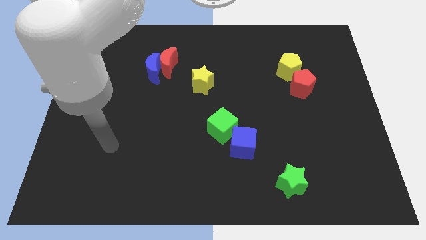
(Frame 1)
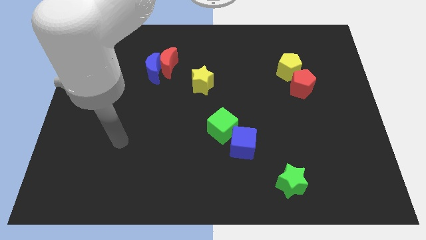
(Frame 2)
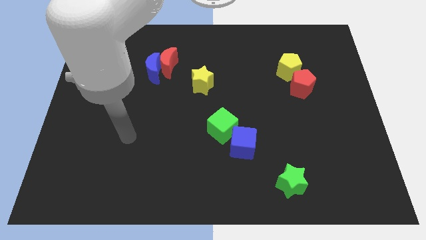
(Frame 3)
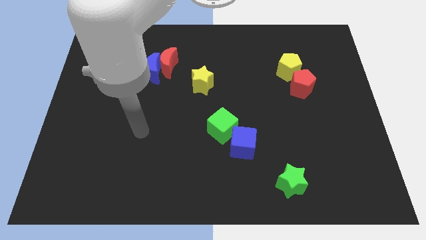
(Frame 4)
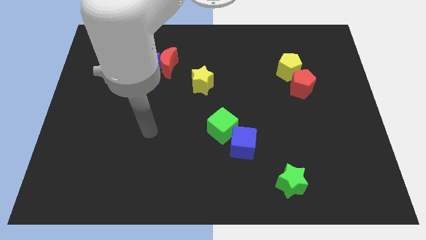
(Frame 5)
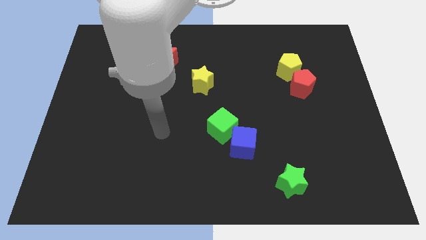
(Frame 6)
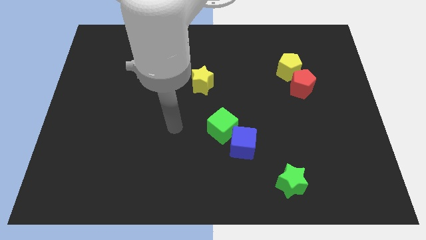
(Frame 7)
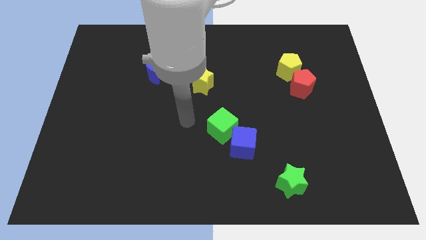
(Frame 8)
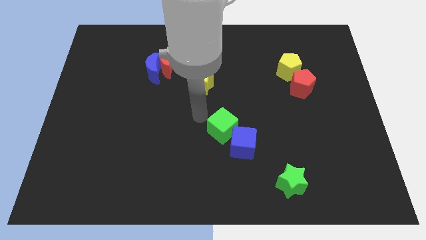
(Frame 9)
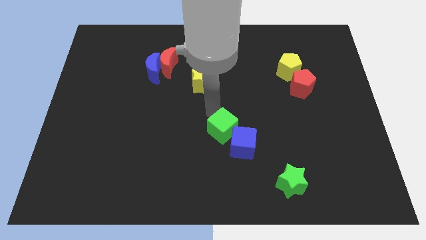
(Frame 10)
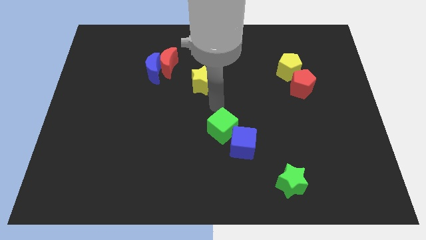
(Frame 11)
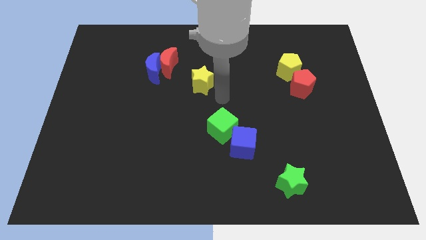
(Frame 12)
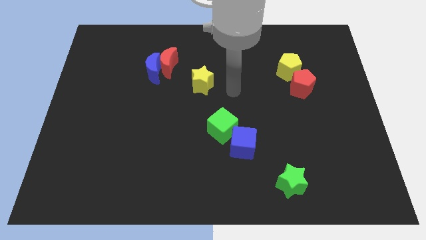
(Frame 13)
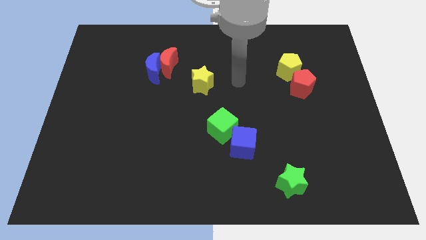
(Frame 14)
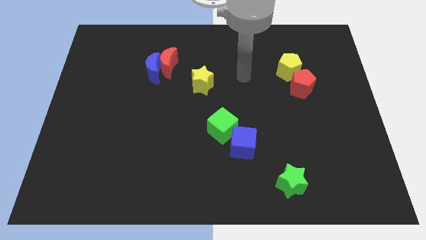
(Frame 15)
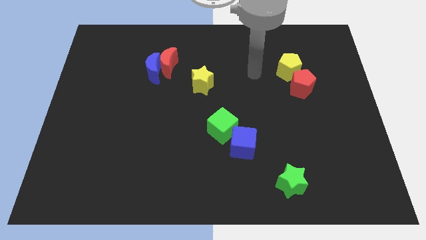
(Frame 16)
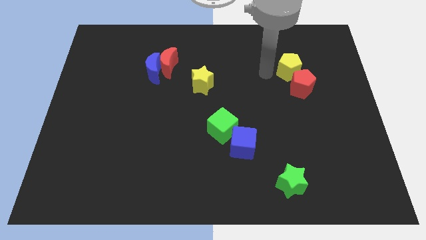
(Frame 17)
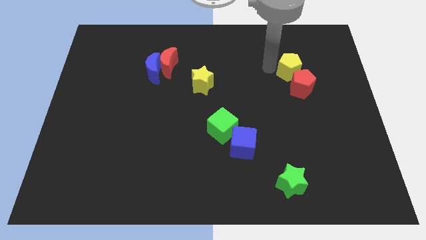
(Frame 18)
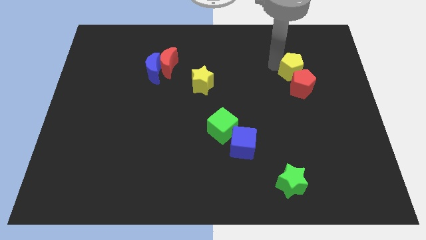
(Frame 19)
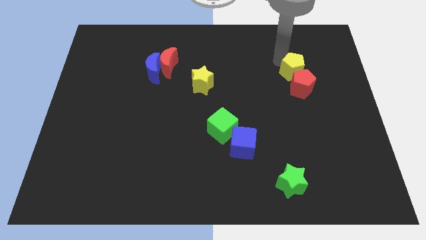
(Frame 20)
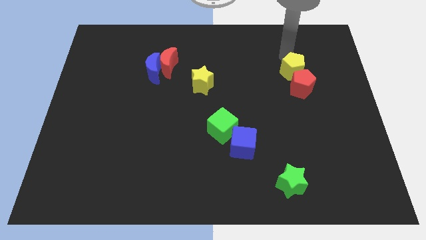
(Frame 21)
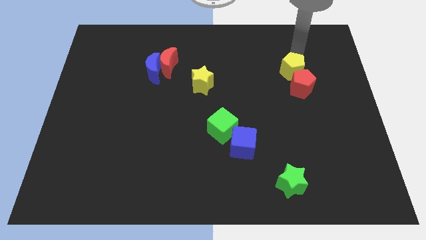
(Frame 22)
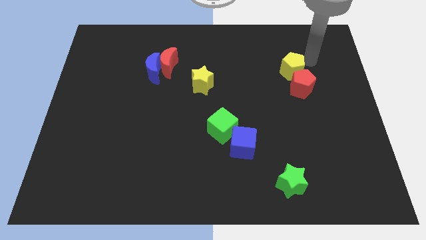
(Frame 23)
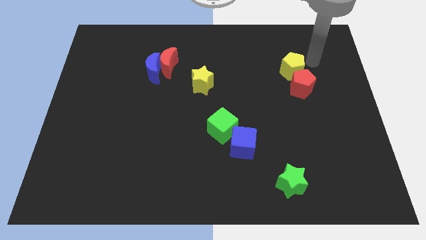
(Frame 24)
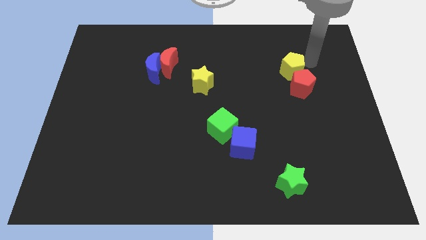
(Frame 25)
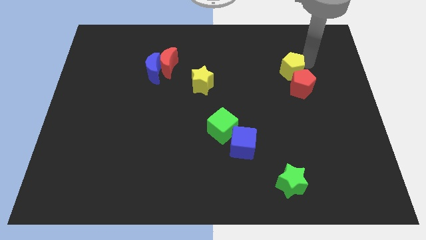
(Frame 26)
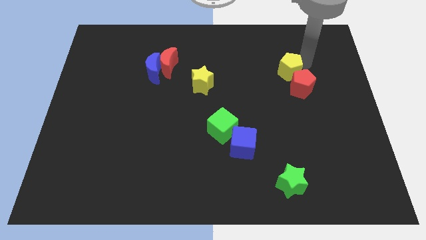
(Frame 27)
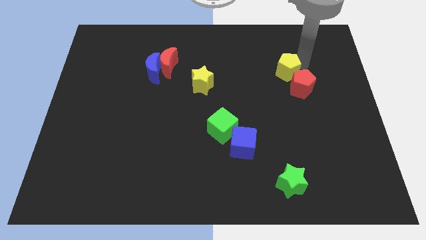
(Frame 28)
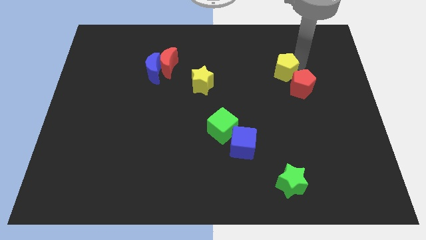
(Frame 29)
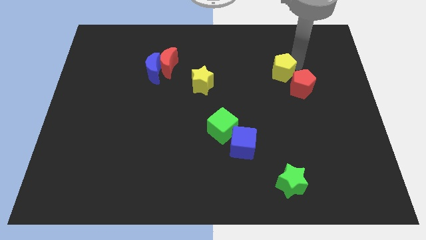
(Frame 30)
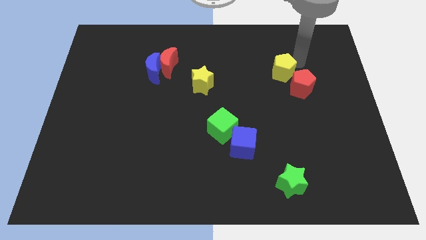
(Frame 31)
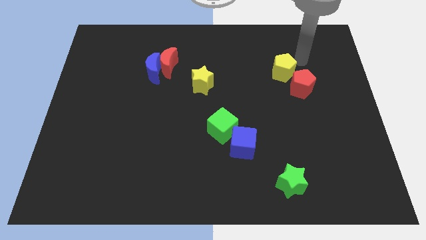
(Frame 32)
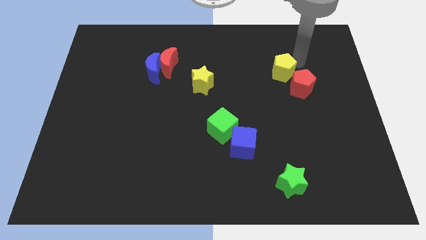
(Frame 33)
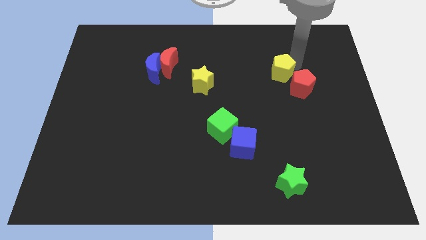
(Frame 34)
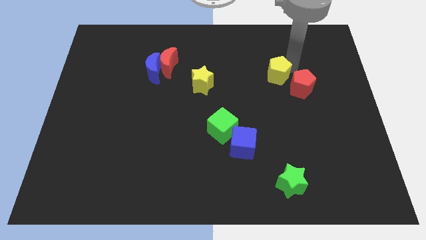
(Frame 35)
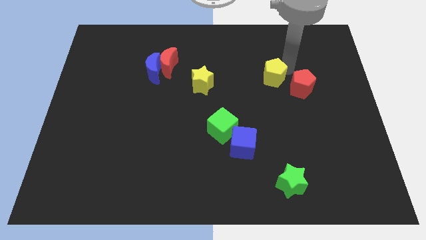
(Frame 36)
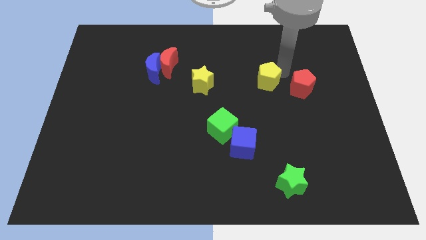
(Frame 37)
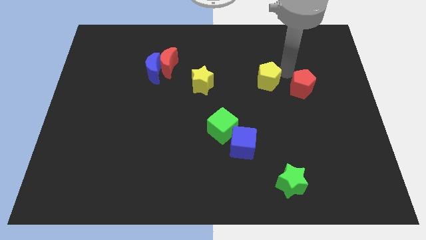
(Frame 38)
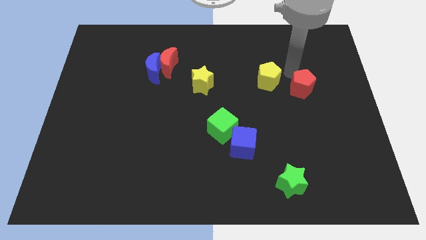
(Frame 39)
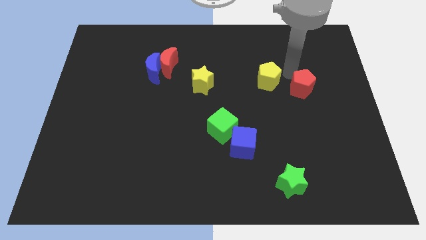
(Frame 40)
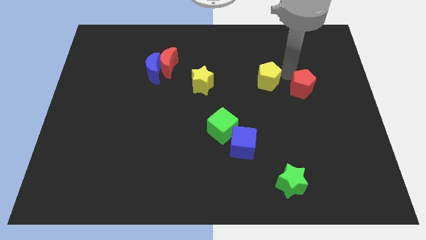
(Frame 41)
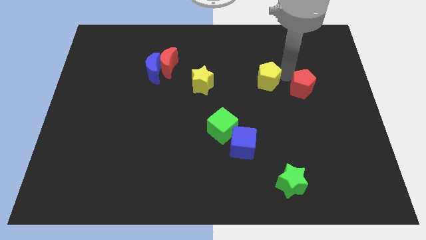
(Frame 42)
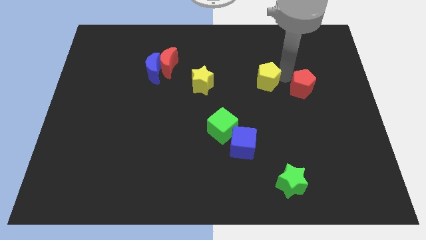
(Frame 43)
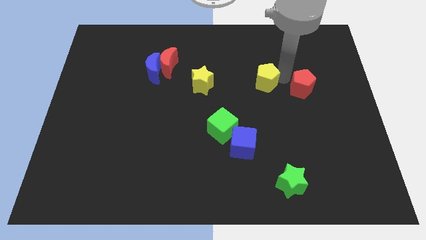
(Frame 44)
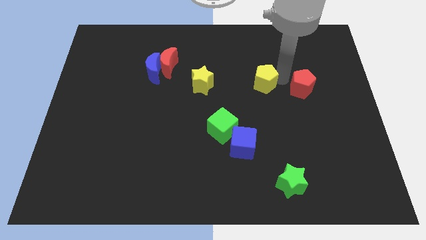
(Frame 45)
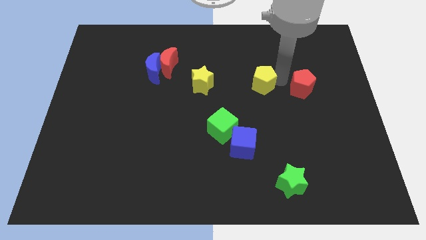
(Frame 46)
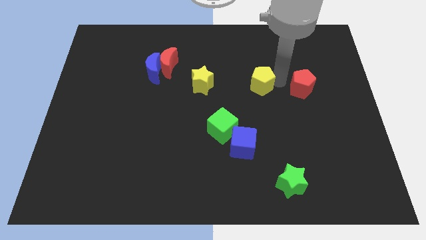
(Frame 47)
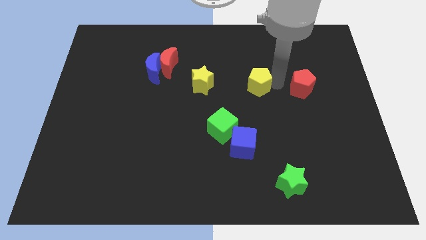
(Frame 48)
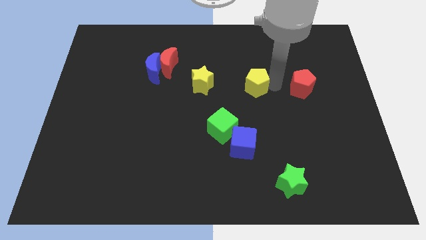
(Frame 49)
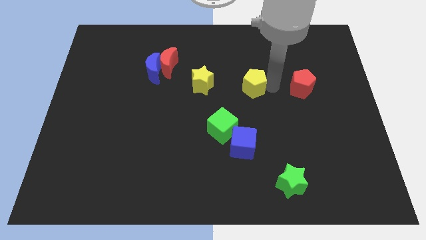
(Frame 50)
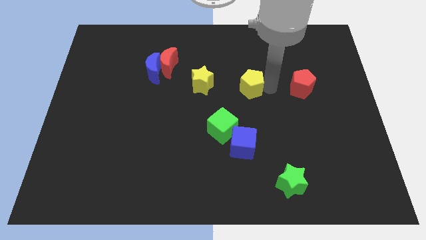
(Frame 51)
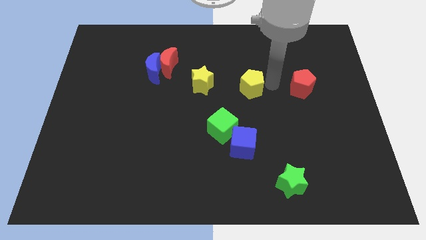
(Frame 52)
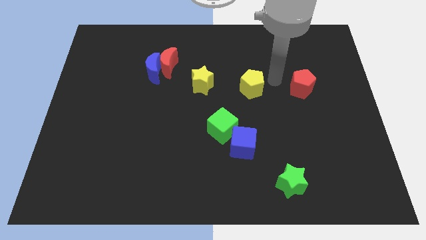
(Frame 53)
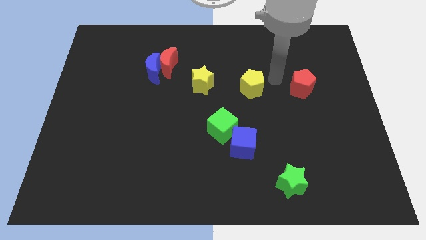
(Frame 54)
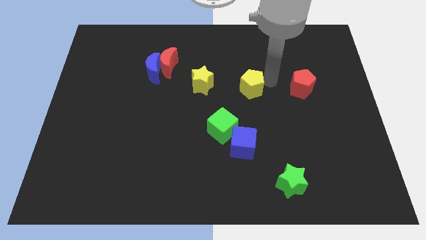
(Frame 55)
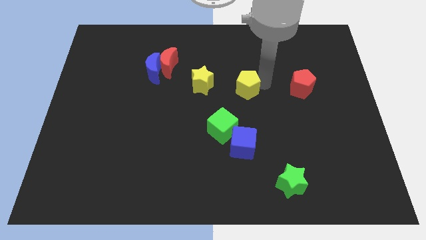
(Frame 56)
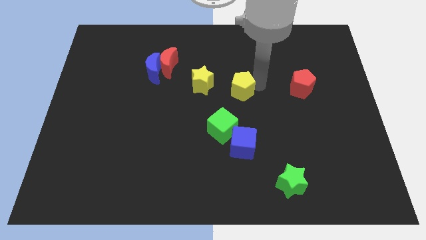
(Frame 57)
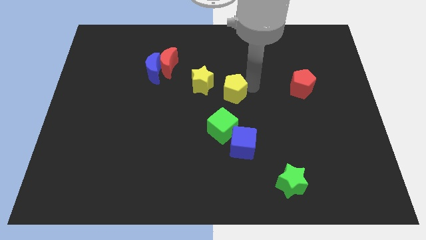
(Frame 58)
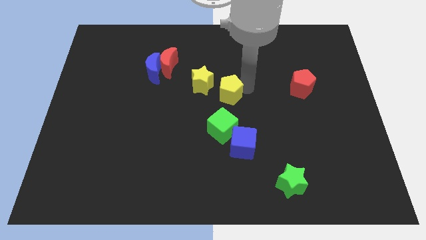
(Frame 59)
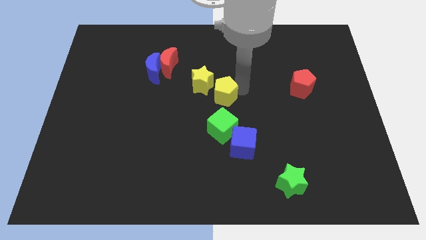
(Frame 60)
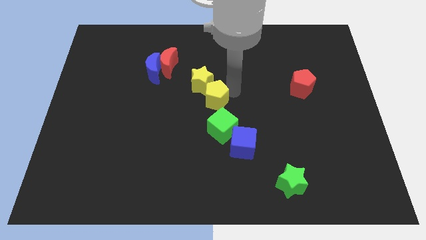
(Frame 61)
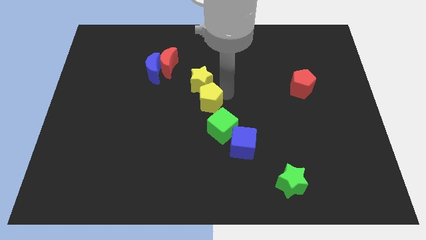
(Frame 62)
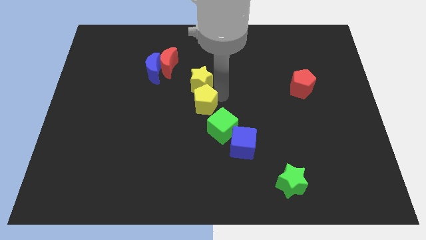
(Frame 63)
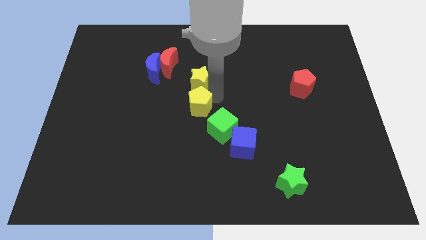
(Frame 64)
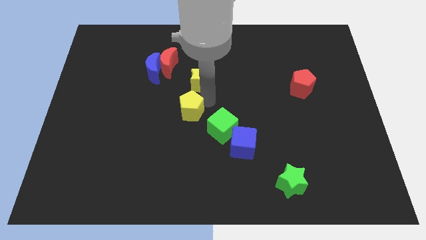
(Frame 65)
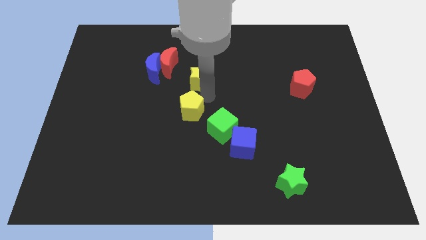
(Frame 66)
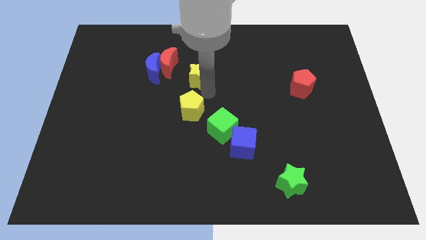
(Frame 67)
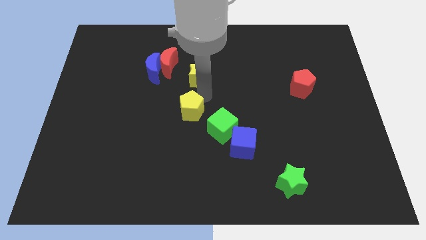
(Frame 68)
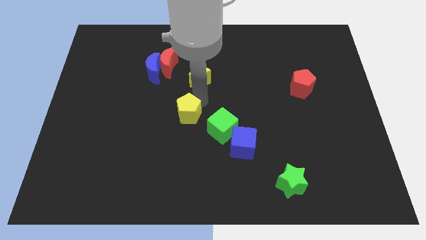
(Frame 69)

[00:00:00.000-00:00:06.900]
put the yellow pentagon left of the green cube
